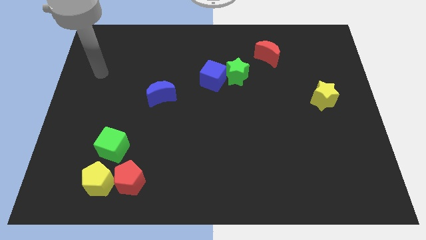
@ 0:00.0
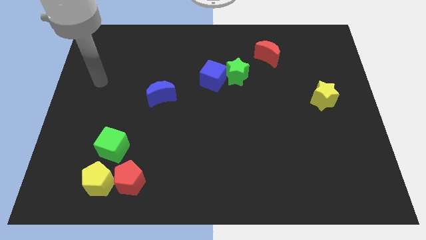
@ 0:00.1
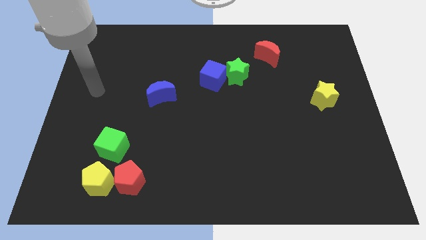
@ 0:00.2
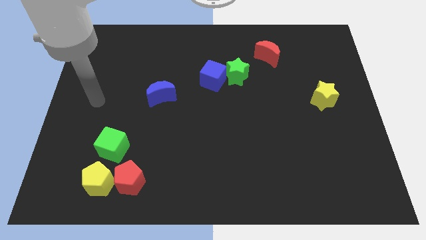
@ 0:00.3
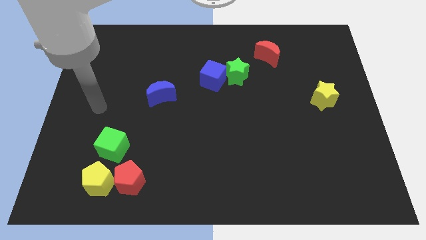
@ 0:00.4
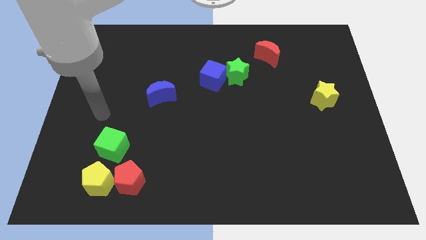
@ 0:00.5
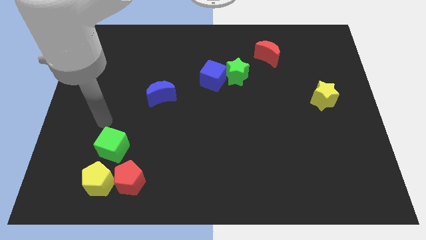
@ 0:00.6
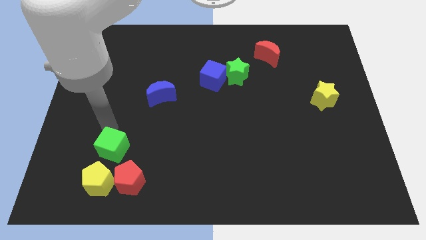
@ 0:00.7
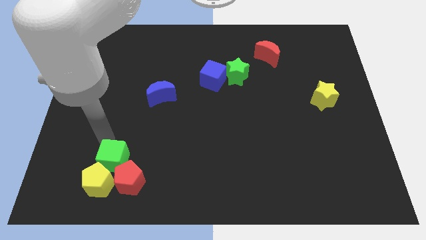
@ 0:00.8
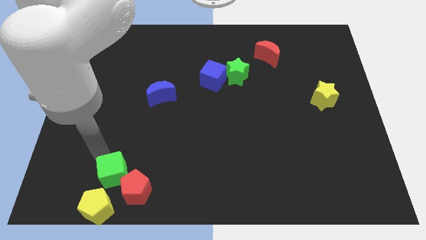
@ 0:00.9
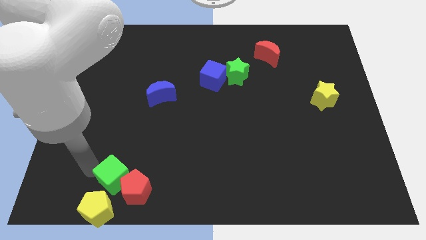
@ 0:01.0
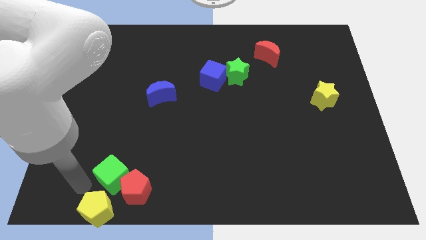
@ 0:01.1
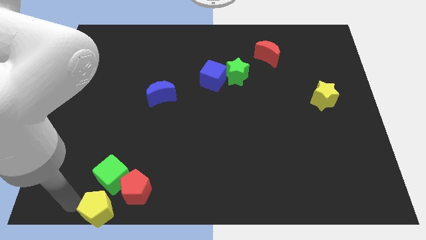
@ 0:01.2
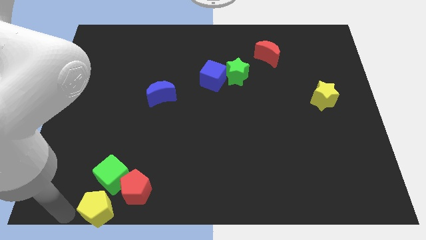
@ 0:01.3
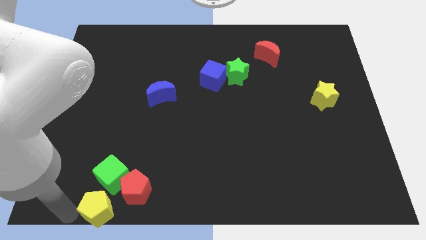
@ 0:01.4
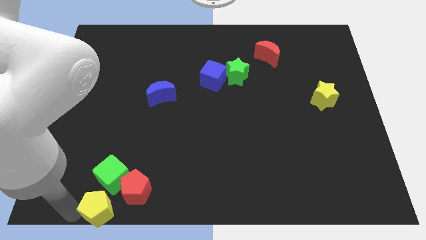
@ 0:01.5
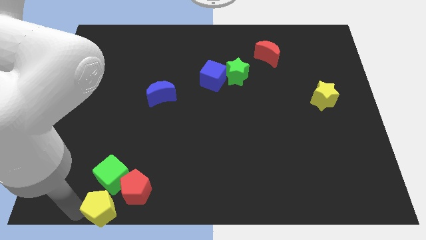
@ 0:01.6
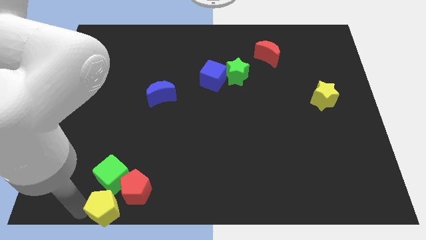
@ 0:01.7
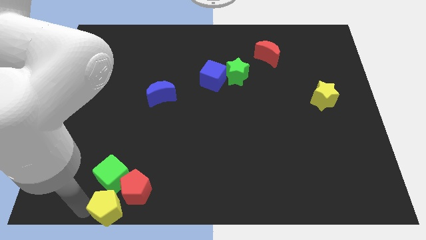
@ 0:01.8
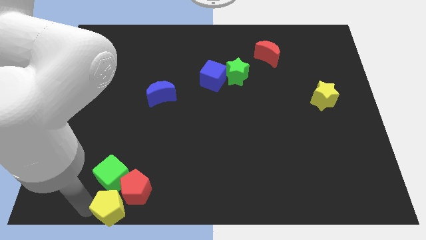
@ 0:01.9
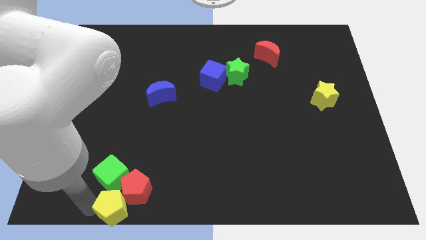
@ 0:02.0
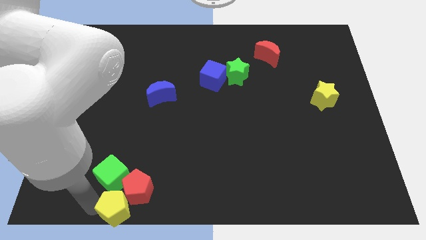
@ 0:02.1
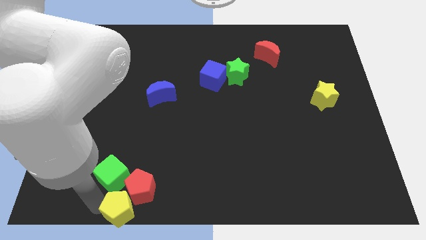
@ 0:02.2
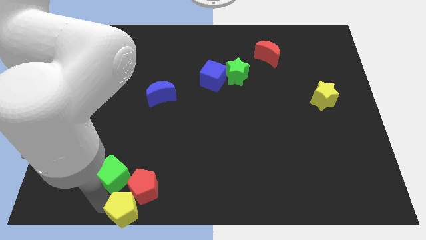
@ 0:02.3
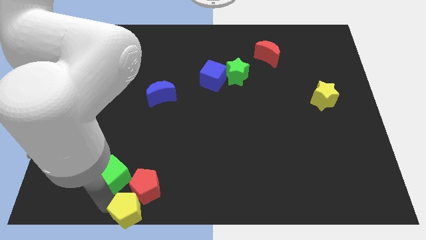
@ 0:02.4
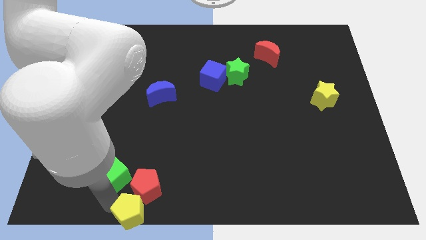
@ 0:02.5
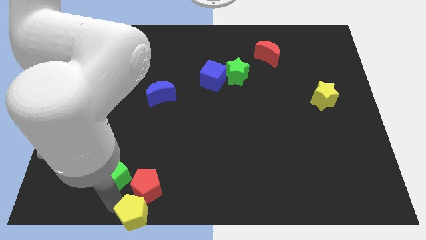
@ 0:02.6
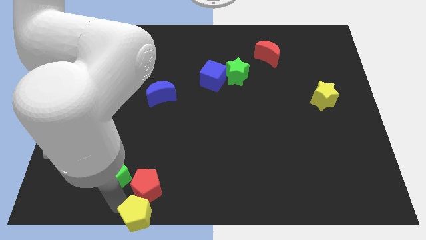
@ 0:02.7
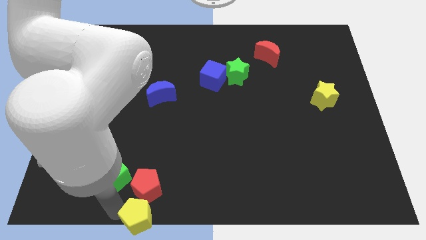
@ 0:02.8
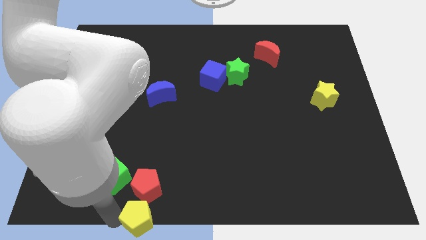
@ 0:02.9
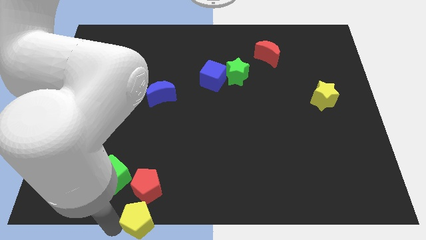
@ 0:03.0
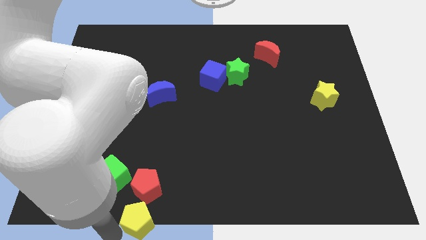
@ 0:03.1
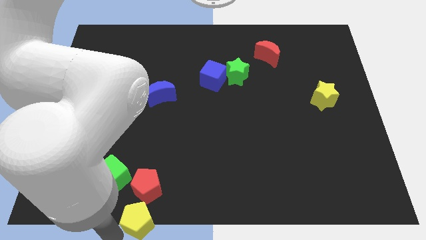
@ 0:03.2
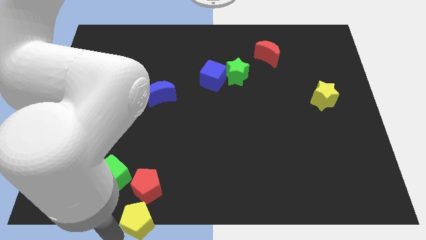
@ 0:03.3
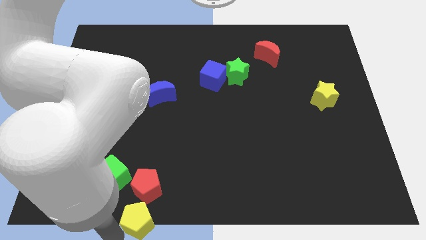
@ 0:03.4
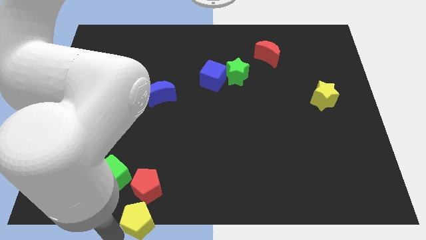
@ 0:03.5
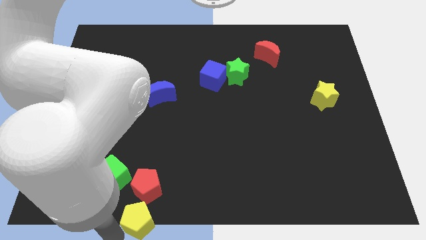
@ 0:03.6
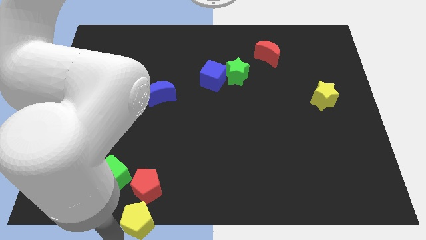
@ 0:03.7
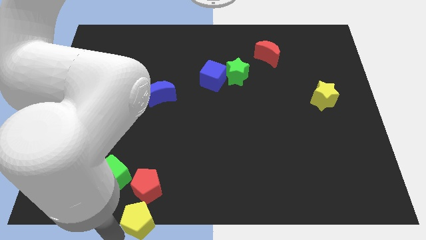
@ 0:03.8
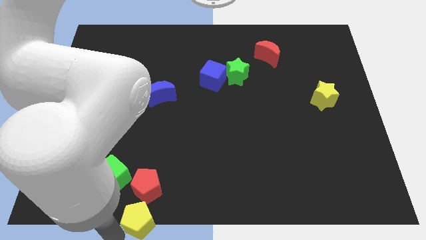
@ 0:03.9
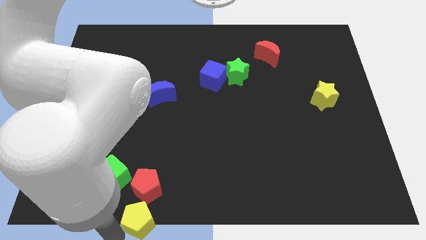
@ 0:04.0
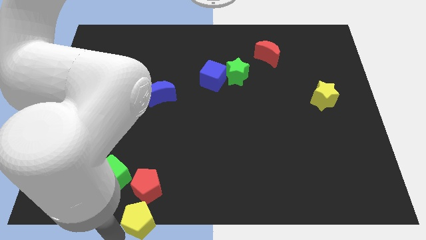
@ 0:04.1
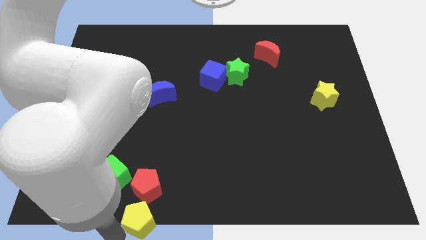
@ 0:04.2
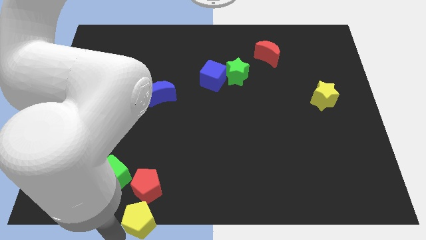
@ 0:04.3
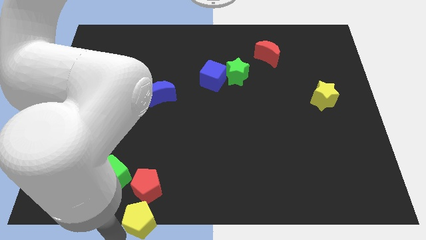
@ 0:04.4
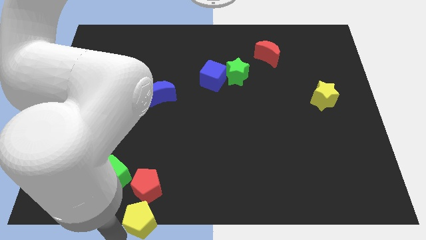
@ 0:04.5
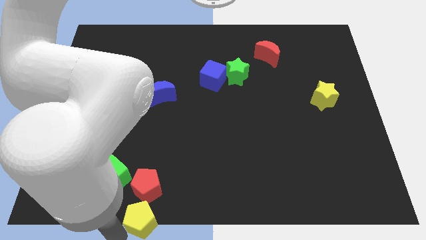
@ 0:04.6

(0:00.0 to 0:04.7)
move the yellow pentagon a little to the right

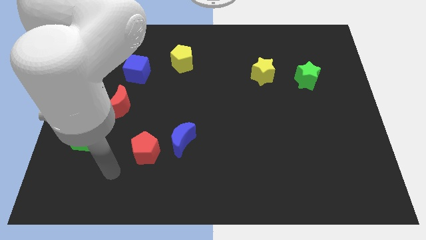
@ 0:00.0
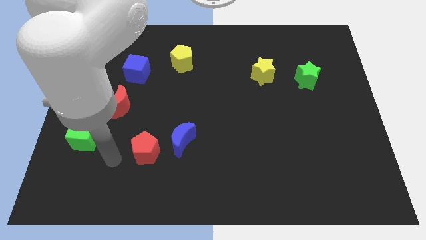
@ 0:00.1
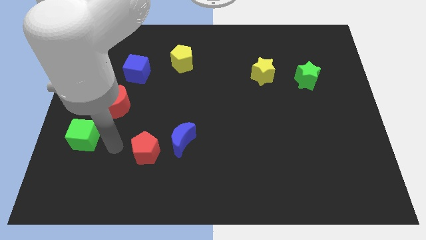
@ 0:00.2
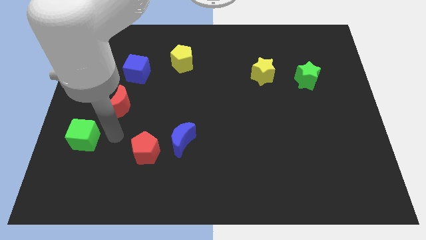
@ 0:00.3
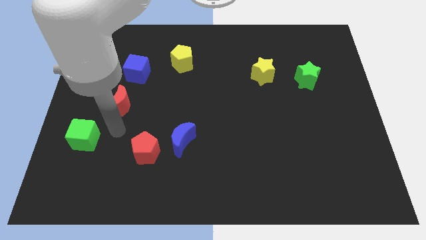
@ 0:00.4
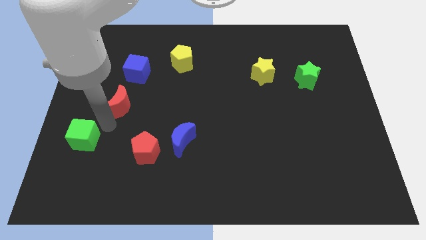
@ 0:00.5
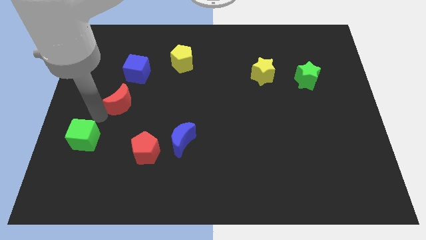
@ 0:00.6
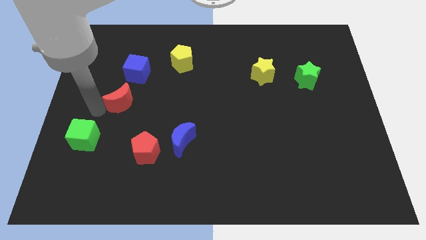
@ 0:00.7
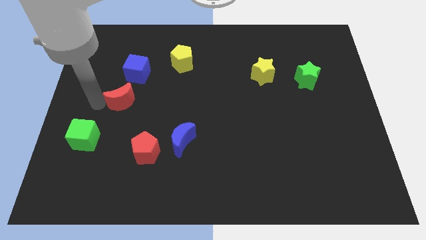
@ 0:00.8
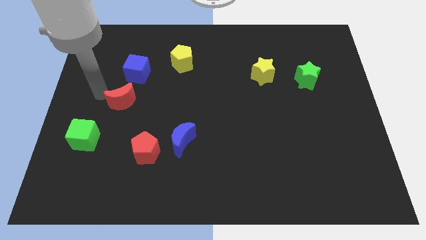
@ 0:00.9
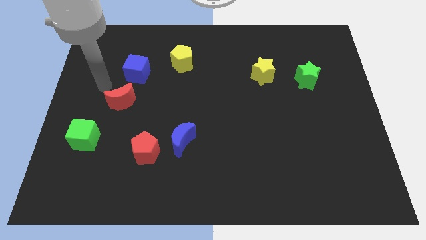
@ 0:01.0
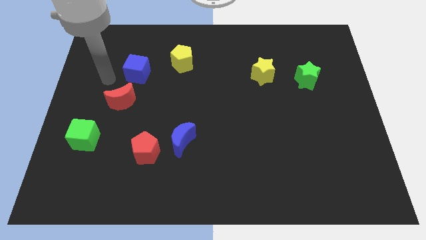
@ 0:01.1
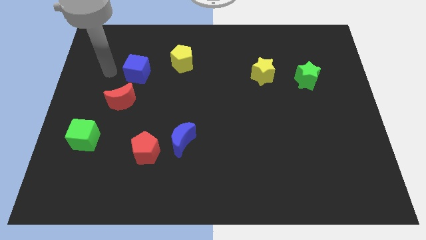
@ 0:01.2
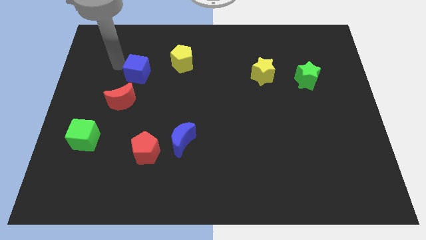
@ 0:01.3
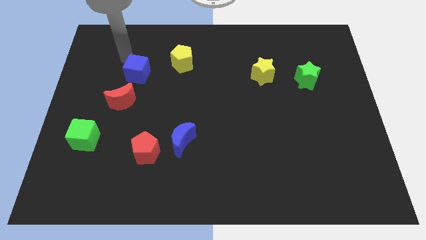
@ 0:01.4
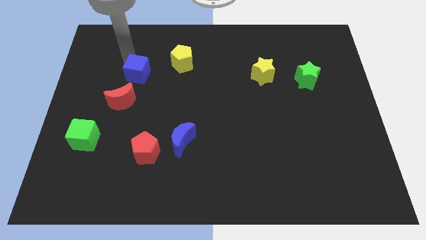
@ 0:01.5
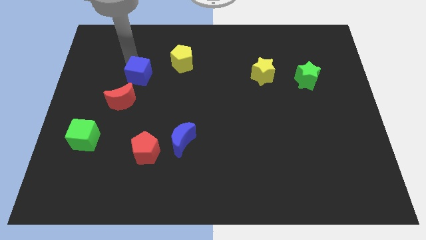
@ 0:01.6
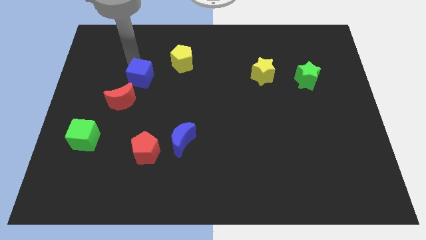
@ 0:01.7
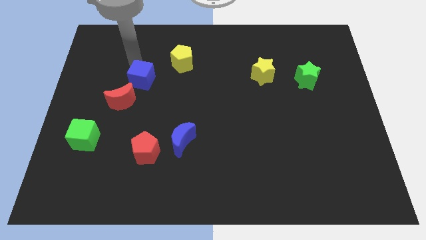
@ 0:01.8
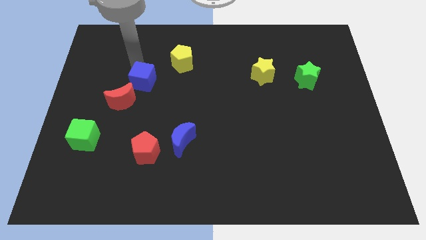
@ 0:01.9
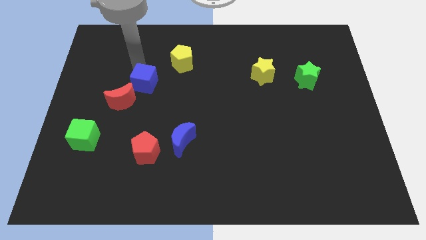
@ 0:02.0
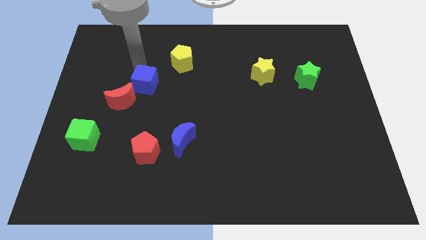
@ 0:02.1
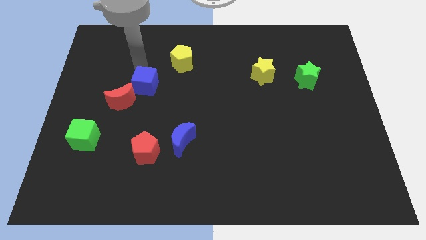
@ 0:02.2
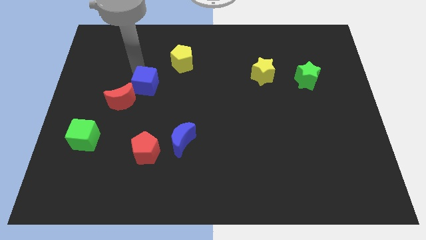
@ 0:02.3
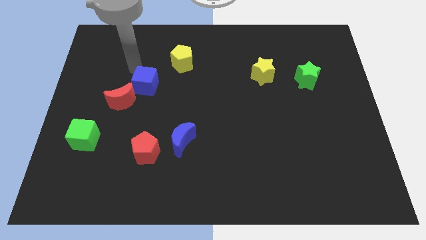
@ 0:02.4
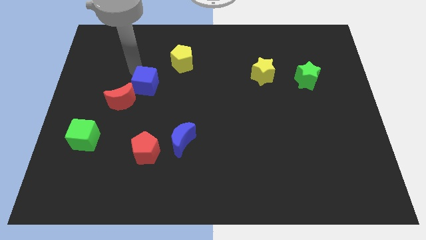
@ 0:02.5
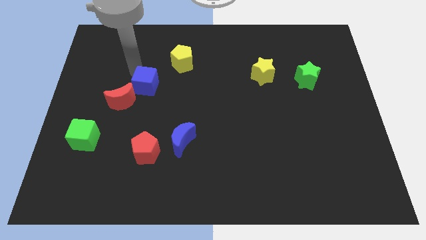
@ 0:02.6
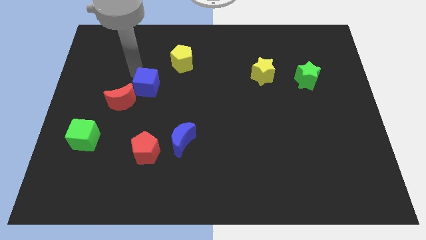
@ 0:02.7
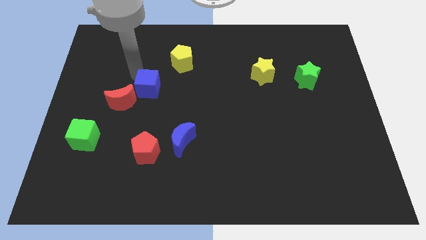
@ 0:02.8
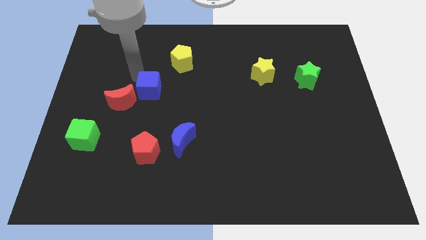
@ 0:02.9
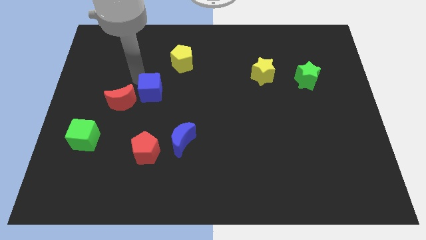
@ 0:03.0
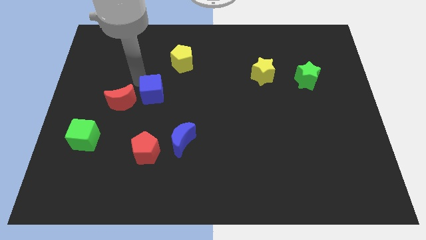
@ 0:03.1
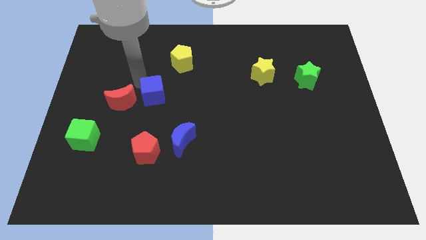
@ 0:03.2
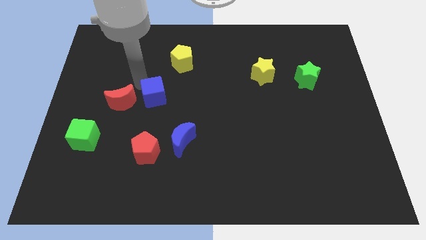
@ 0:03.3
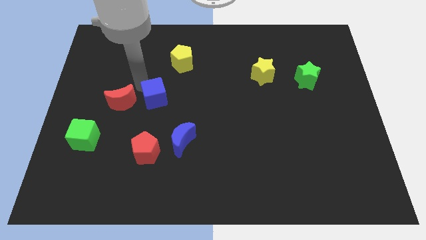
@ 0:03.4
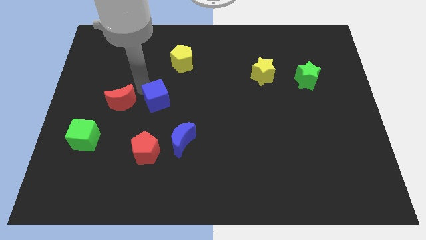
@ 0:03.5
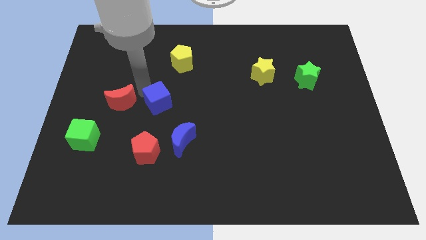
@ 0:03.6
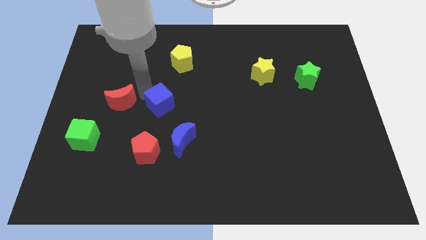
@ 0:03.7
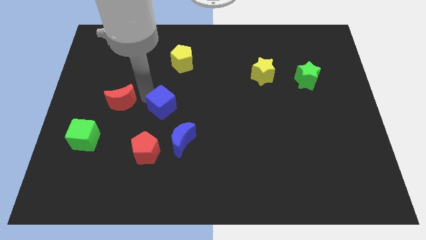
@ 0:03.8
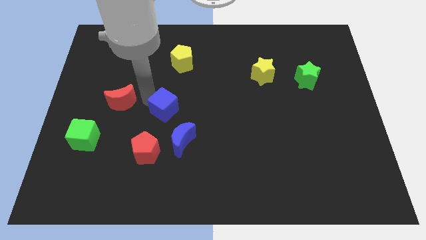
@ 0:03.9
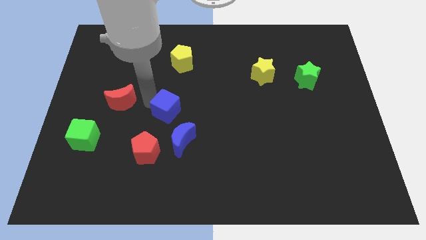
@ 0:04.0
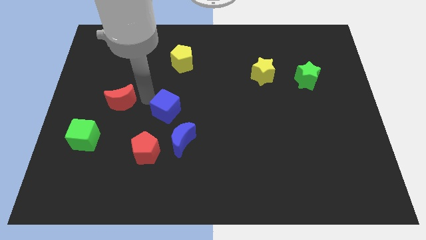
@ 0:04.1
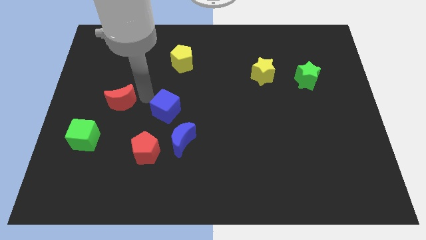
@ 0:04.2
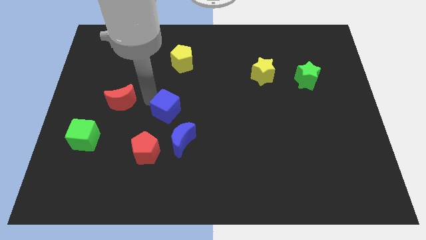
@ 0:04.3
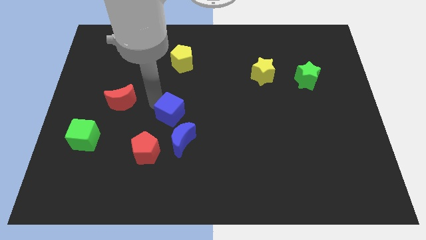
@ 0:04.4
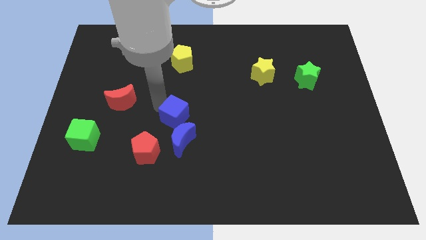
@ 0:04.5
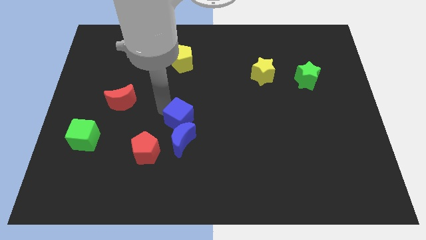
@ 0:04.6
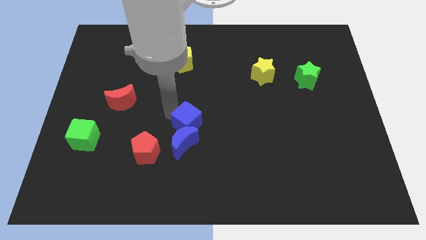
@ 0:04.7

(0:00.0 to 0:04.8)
slide the blue cube diagonally downwards and to the right
